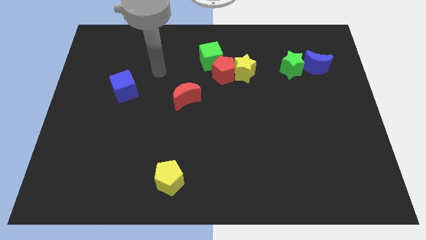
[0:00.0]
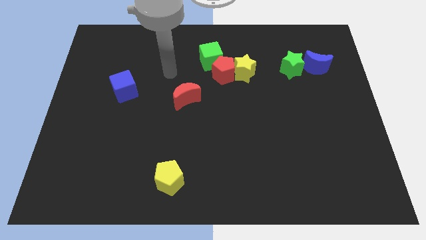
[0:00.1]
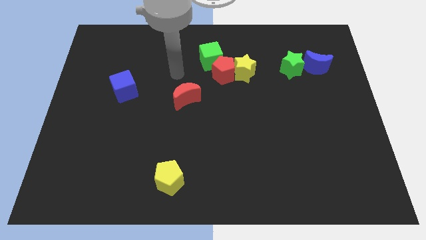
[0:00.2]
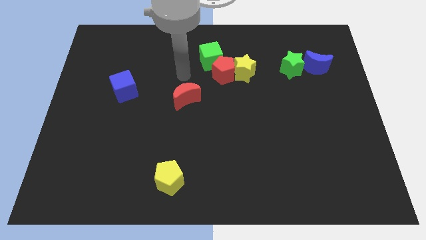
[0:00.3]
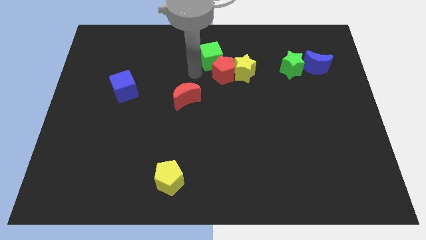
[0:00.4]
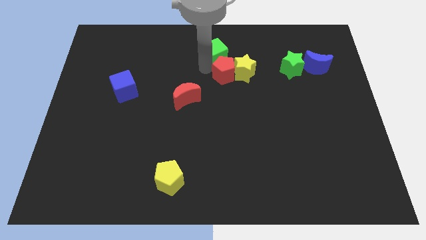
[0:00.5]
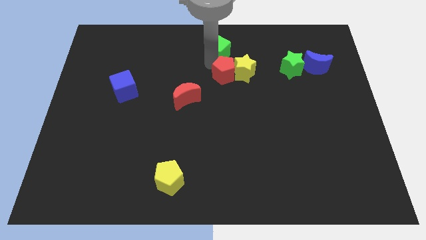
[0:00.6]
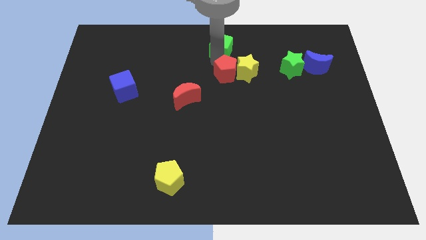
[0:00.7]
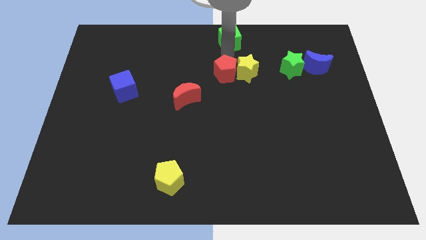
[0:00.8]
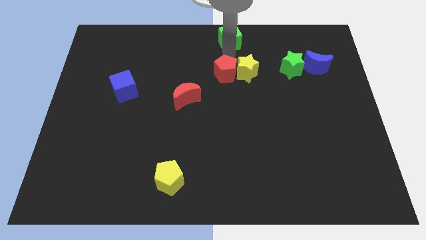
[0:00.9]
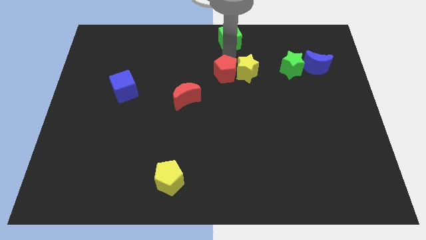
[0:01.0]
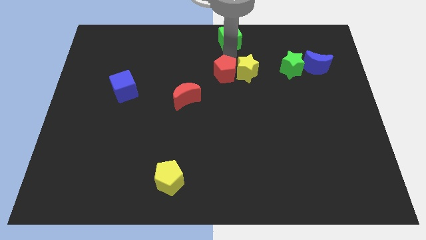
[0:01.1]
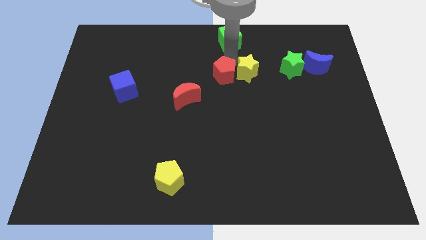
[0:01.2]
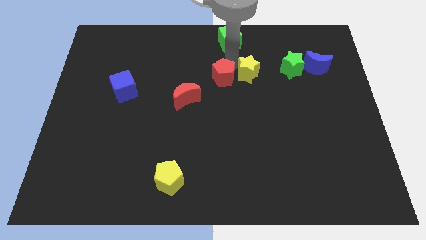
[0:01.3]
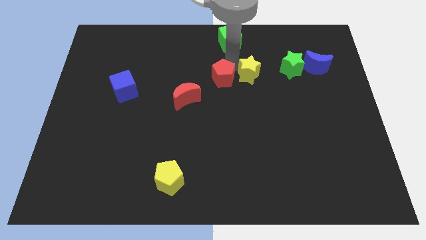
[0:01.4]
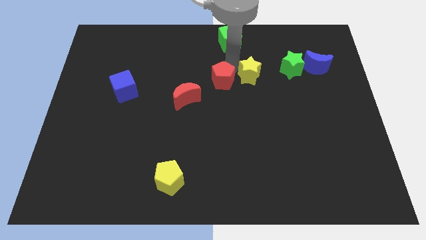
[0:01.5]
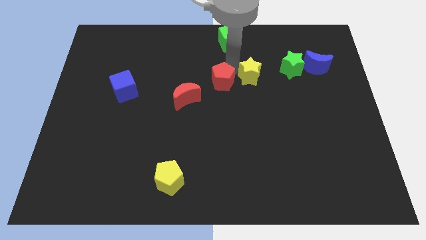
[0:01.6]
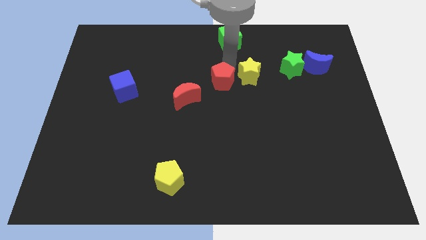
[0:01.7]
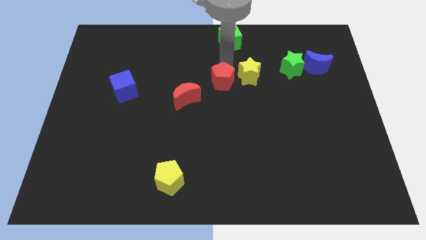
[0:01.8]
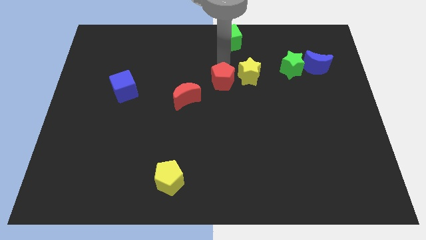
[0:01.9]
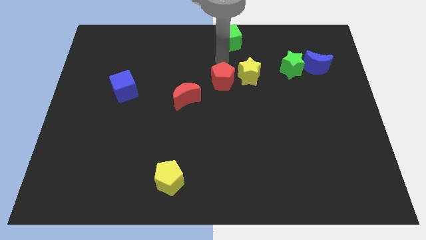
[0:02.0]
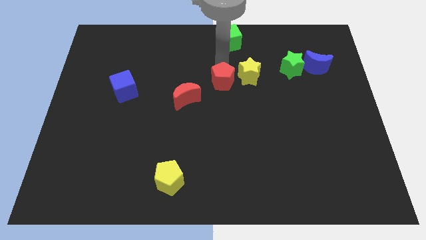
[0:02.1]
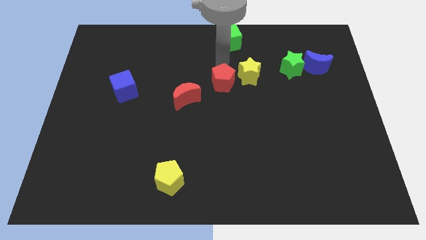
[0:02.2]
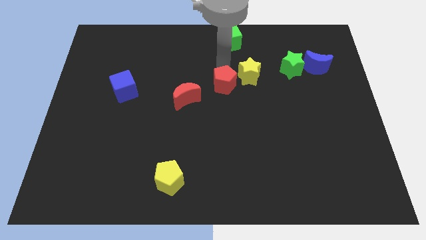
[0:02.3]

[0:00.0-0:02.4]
move the red pentagon away from the yellow star and green cube

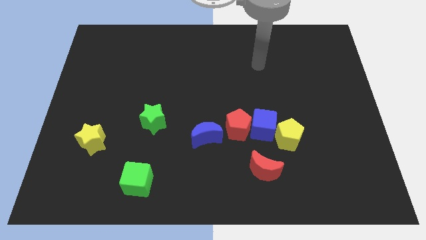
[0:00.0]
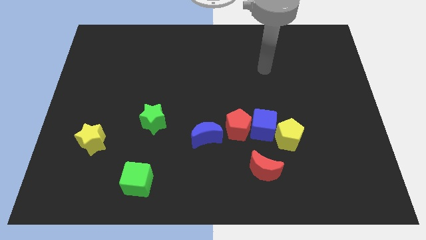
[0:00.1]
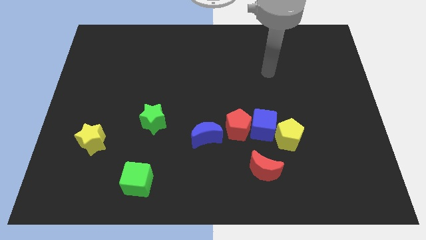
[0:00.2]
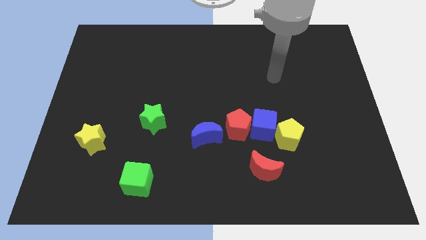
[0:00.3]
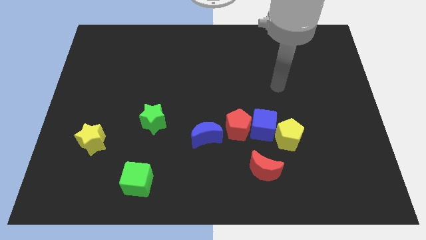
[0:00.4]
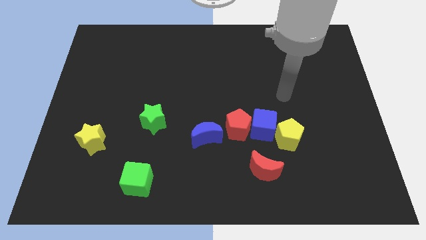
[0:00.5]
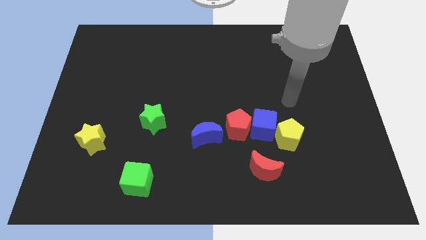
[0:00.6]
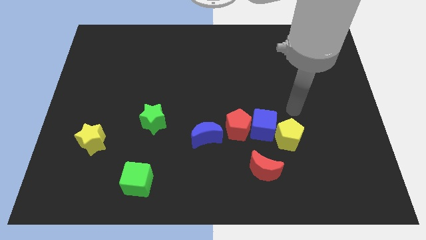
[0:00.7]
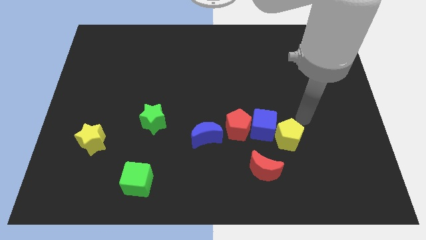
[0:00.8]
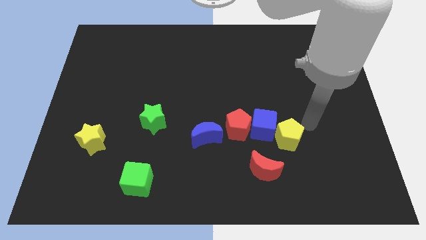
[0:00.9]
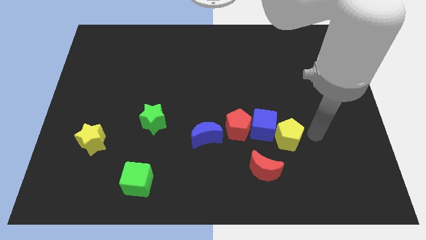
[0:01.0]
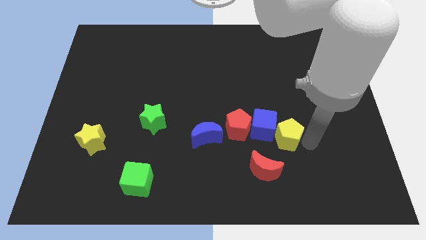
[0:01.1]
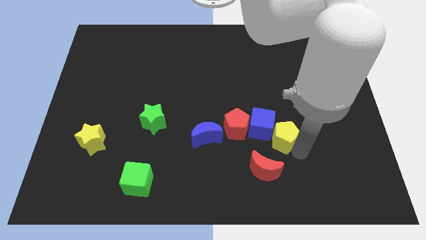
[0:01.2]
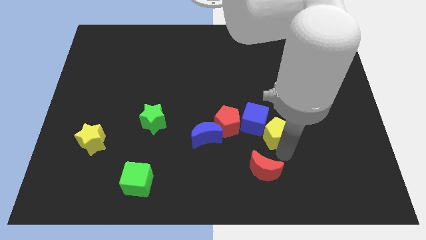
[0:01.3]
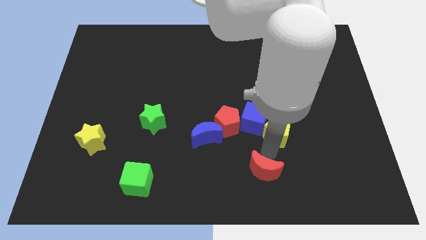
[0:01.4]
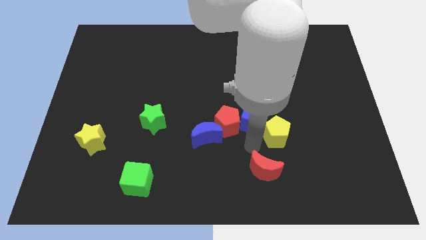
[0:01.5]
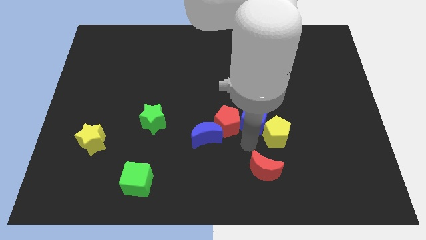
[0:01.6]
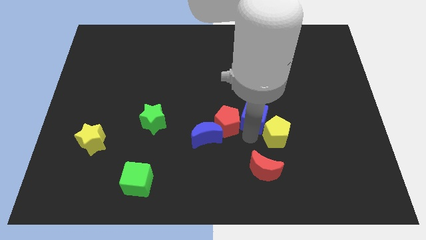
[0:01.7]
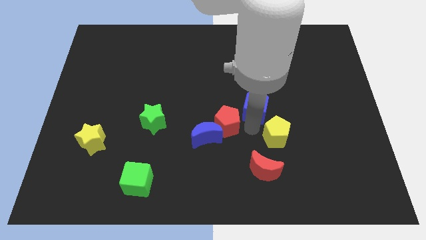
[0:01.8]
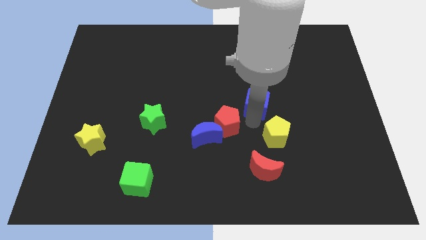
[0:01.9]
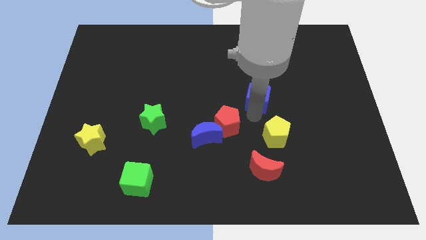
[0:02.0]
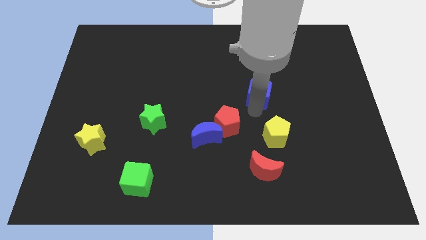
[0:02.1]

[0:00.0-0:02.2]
move the blue cube away from the red pentagon and yellow pentagon

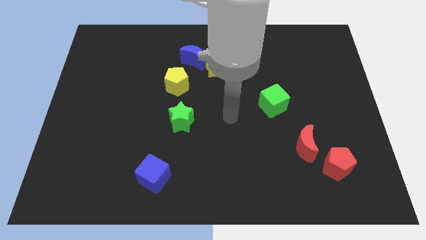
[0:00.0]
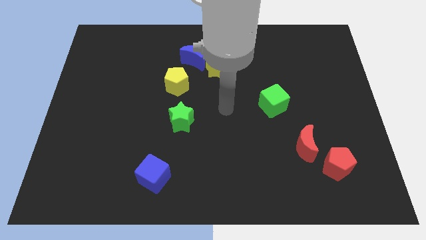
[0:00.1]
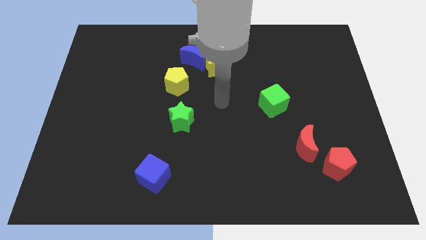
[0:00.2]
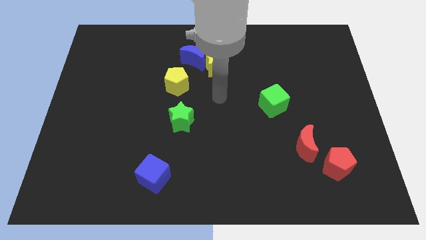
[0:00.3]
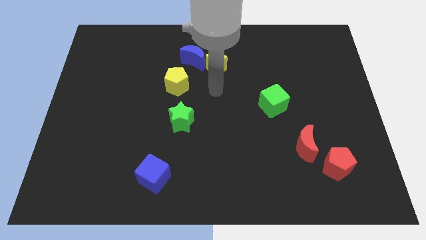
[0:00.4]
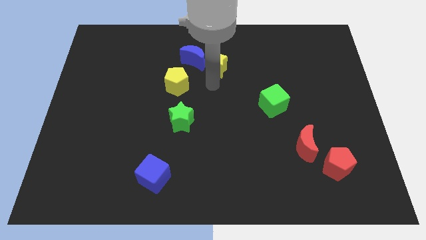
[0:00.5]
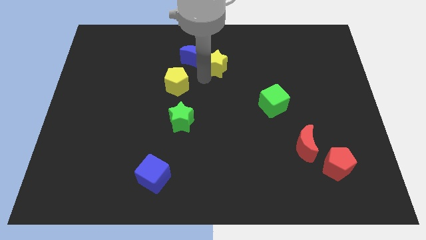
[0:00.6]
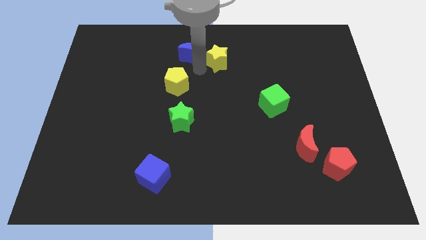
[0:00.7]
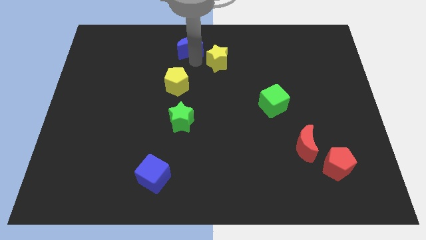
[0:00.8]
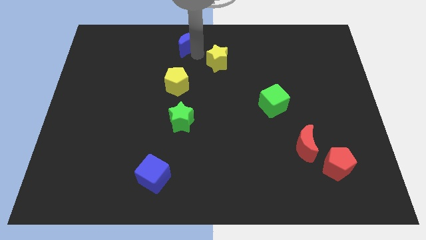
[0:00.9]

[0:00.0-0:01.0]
pull the yellow star apart from the blue moon

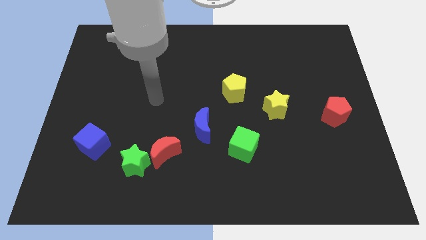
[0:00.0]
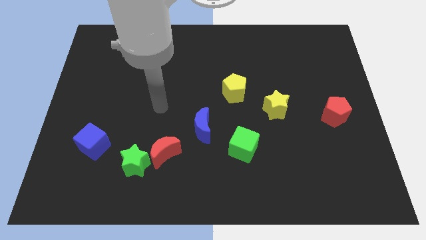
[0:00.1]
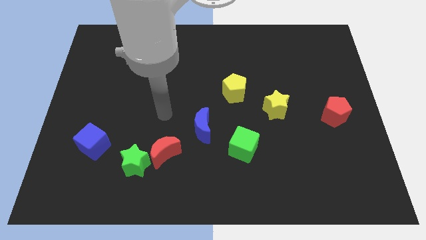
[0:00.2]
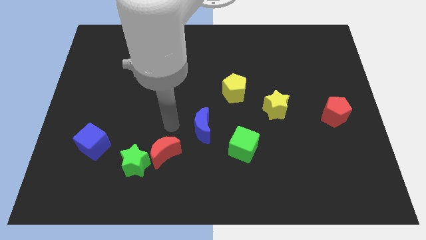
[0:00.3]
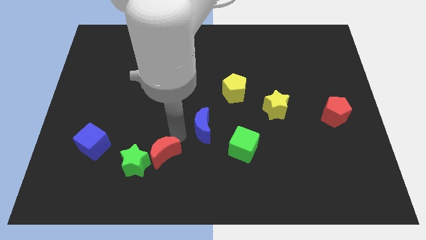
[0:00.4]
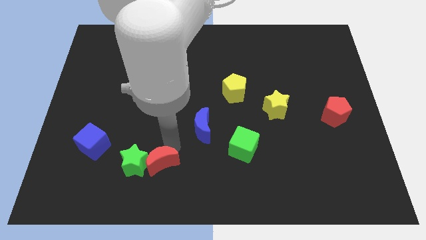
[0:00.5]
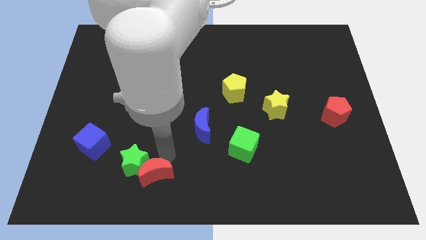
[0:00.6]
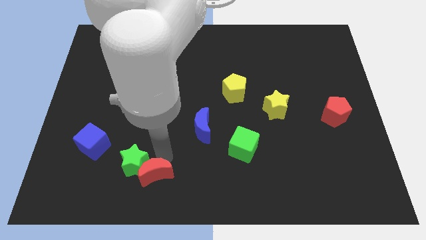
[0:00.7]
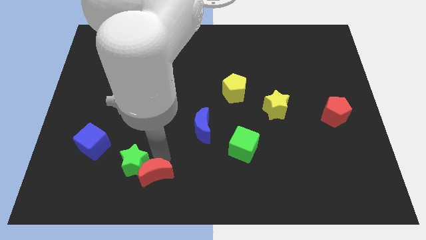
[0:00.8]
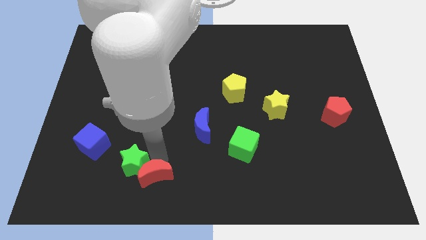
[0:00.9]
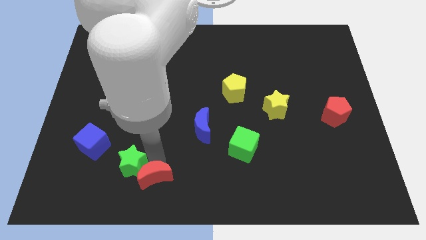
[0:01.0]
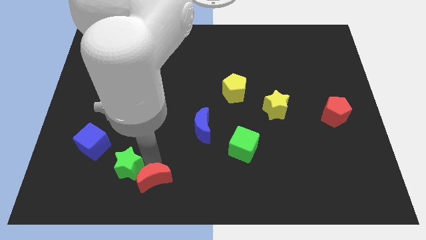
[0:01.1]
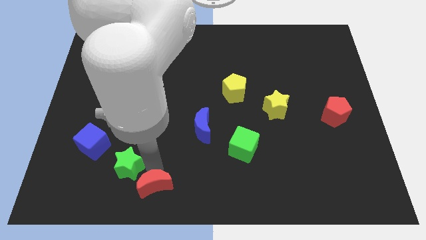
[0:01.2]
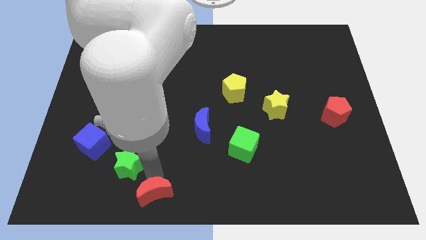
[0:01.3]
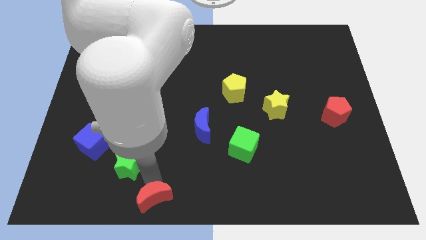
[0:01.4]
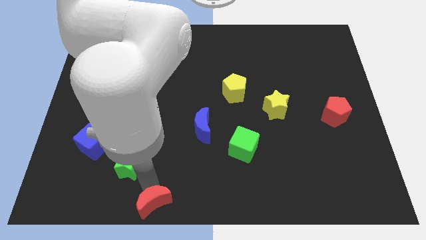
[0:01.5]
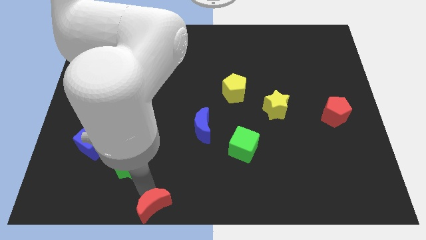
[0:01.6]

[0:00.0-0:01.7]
separate the green star from the red moon

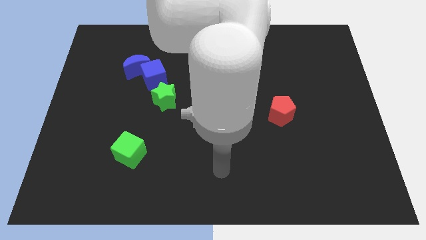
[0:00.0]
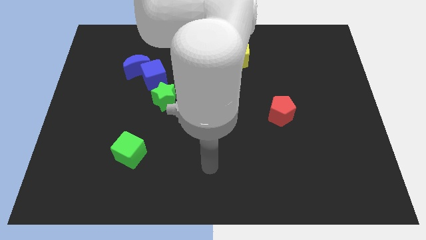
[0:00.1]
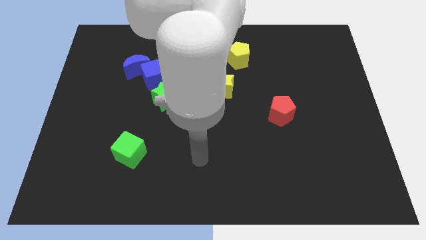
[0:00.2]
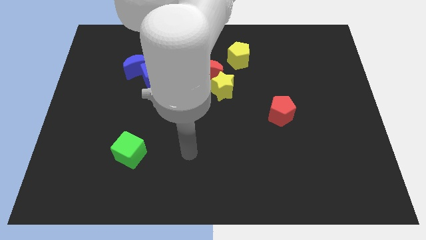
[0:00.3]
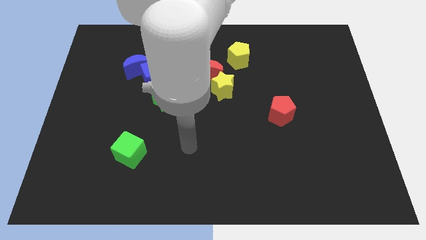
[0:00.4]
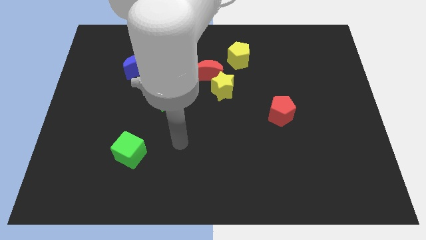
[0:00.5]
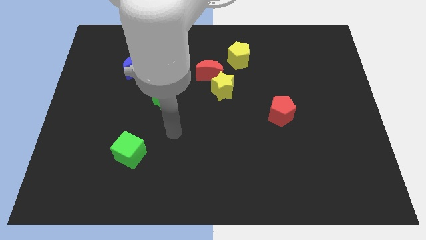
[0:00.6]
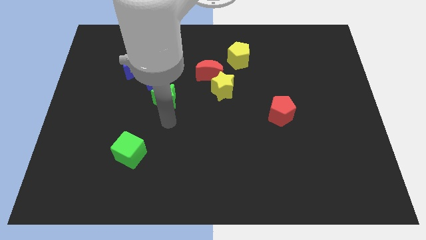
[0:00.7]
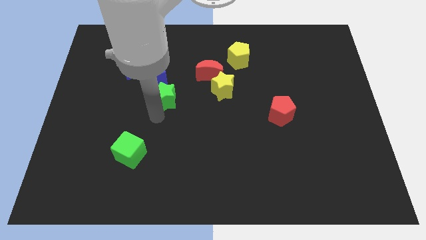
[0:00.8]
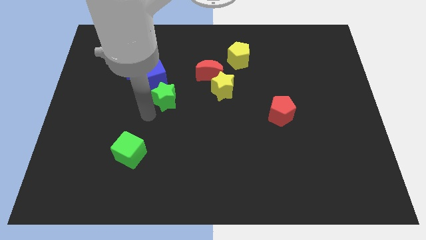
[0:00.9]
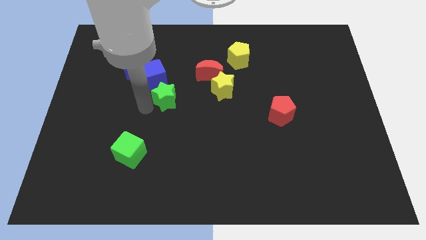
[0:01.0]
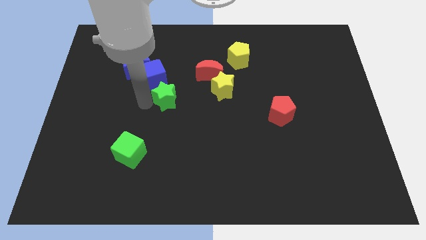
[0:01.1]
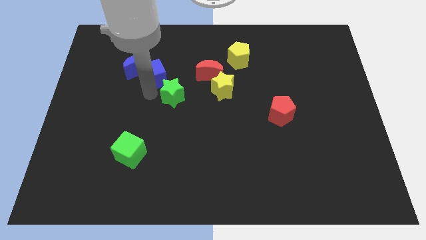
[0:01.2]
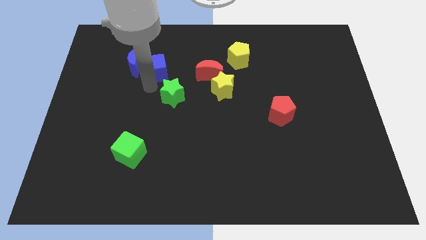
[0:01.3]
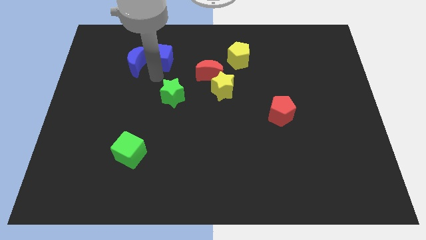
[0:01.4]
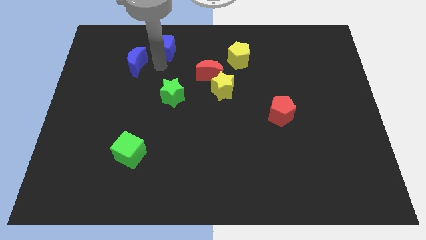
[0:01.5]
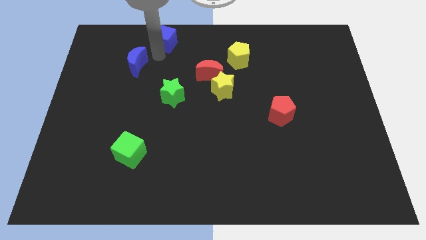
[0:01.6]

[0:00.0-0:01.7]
move the blue moon away from the blue cube

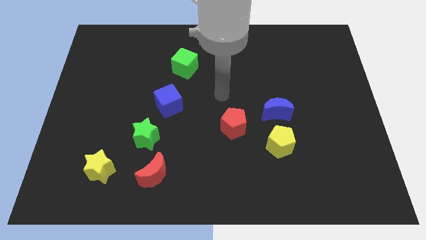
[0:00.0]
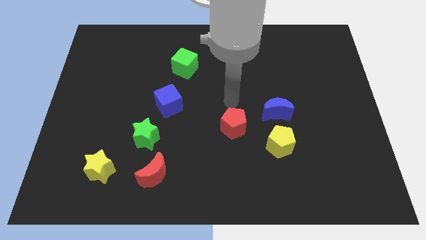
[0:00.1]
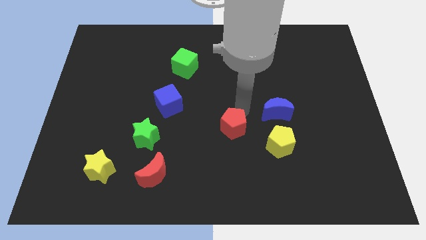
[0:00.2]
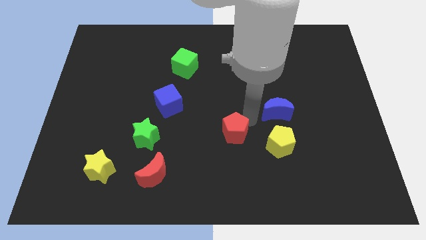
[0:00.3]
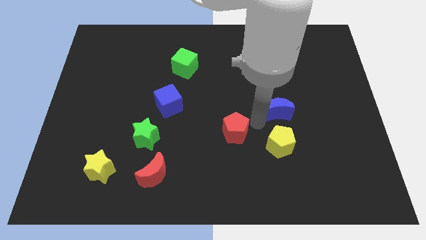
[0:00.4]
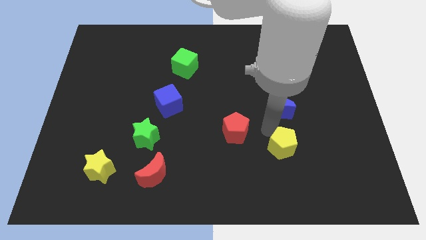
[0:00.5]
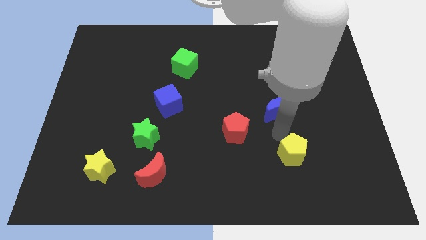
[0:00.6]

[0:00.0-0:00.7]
move the blue moon away from the yellow pentagon
